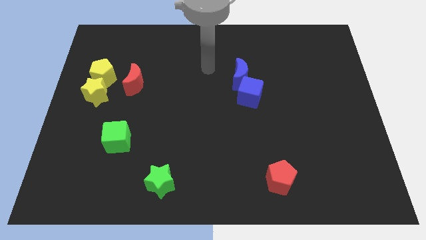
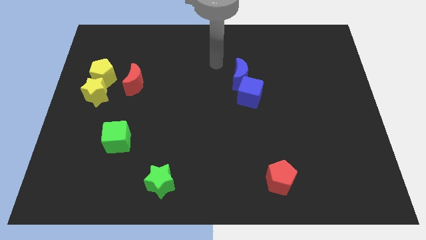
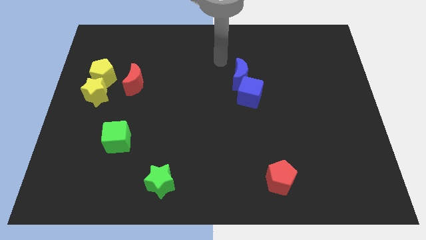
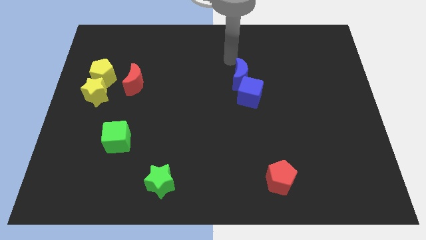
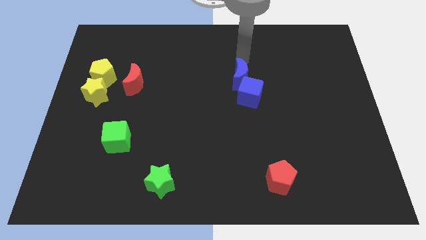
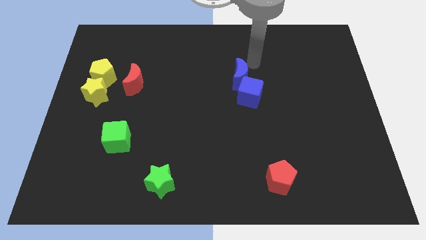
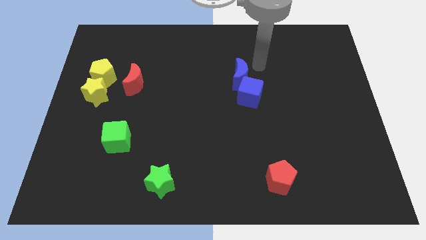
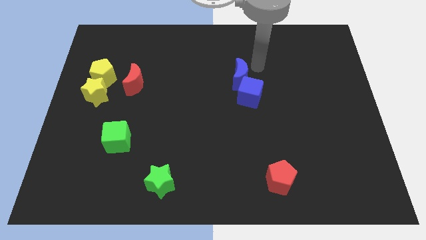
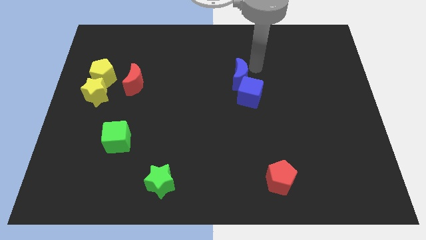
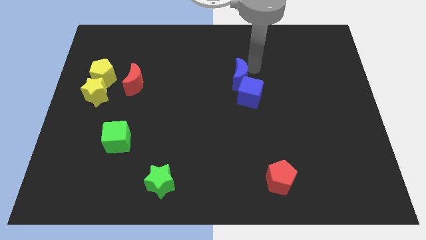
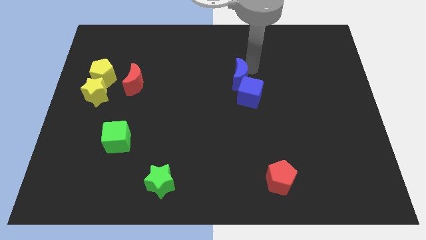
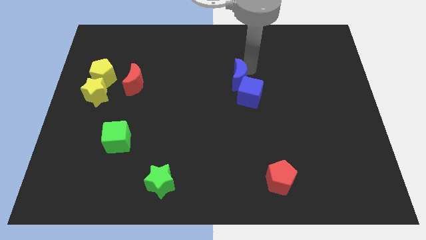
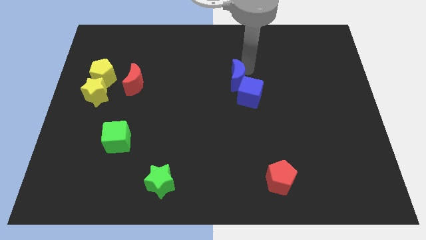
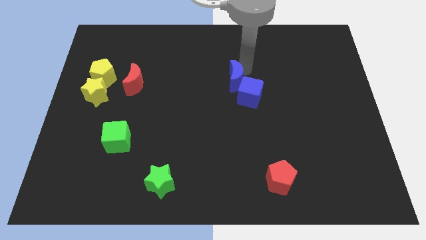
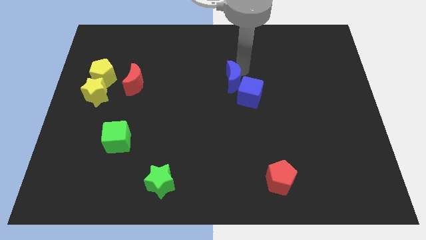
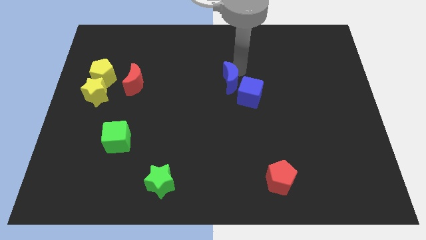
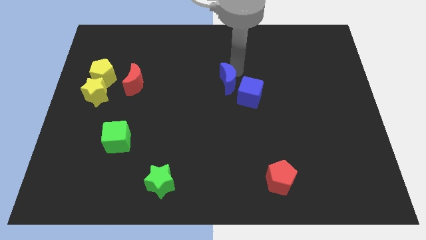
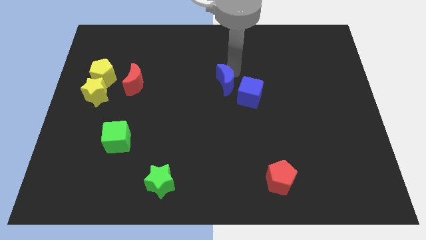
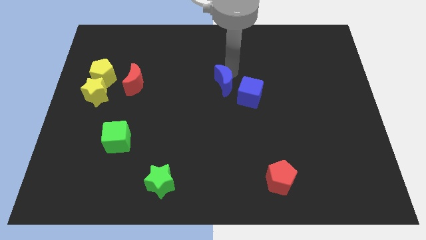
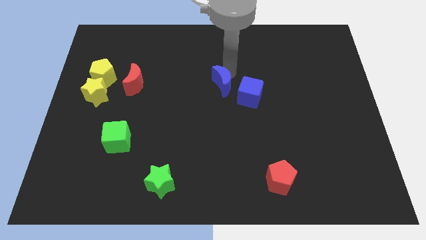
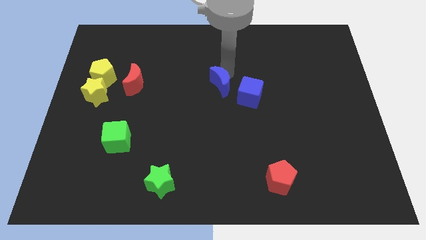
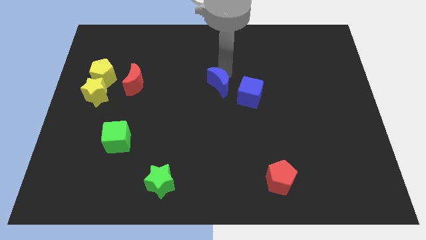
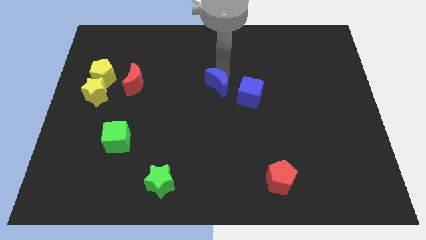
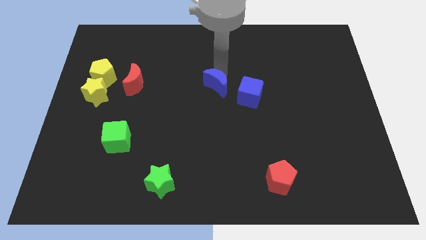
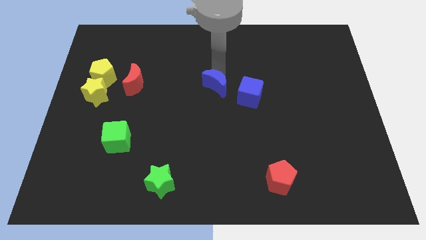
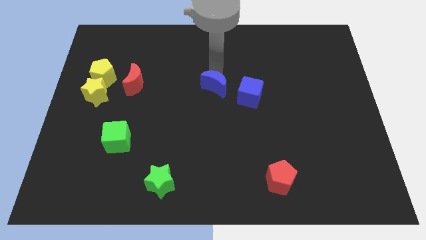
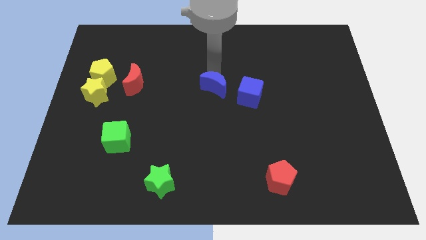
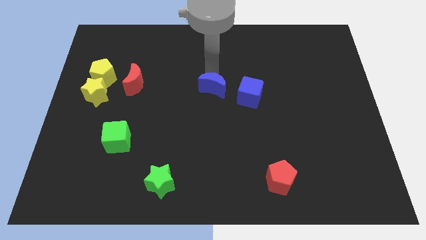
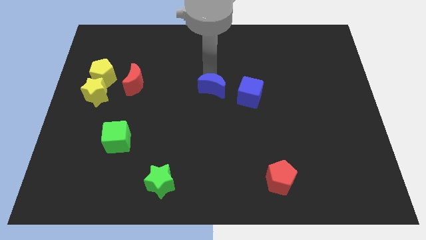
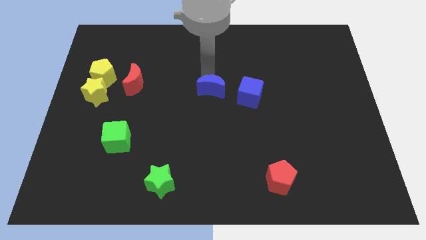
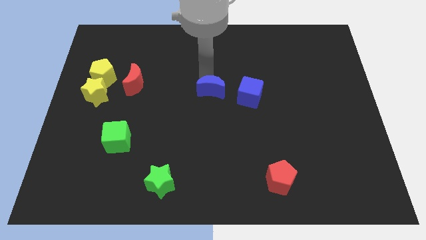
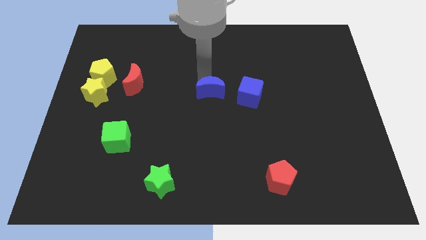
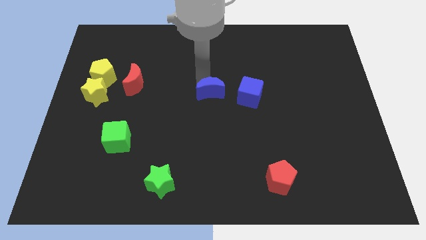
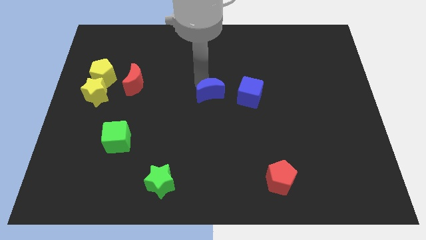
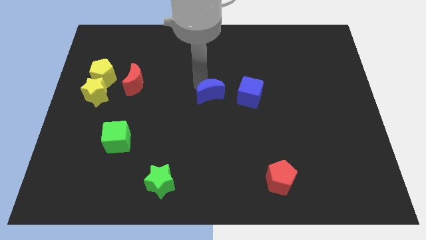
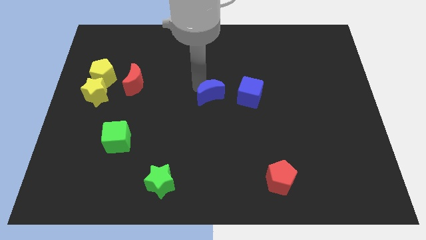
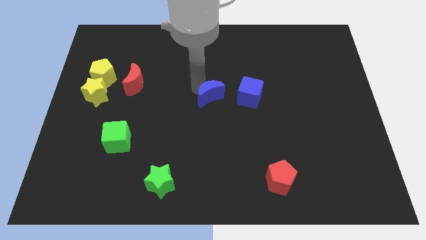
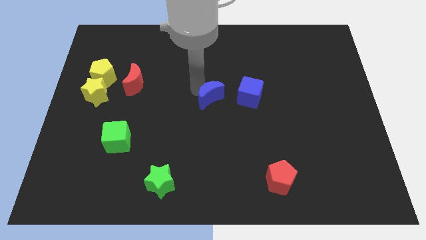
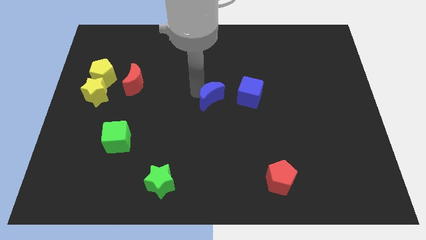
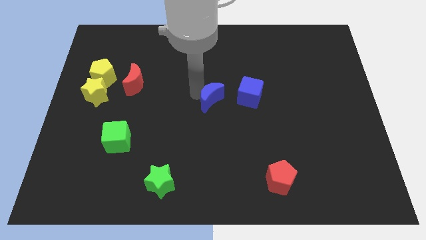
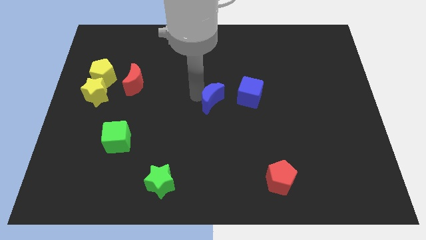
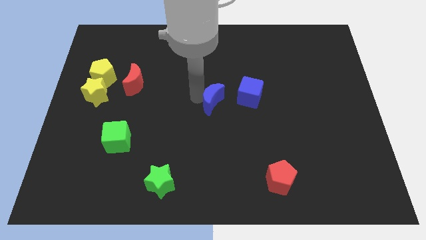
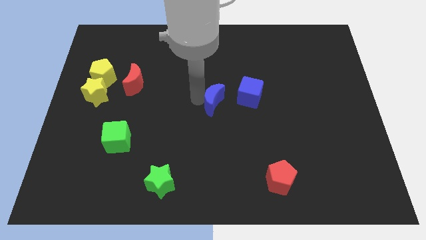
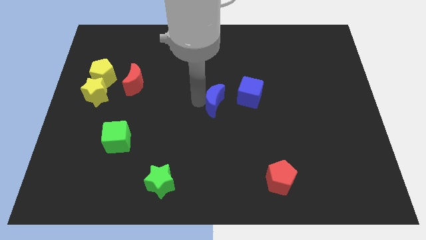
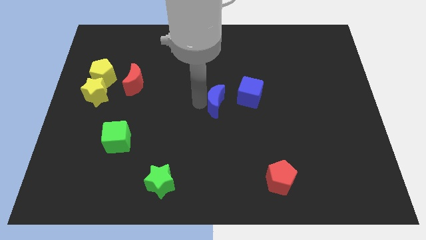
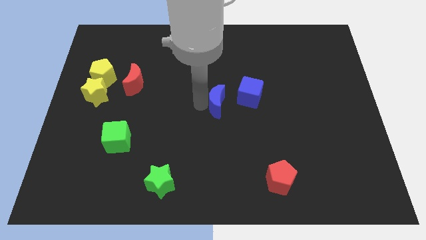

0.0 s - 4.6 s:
push the blue moon a little downwards

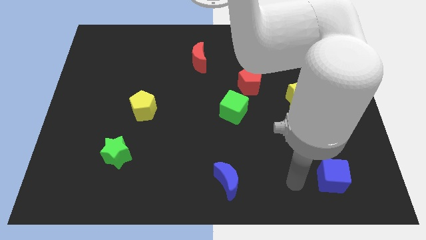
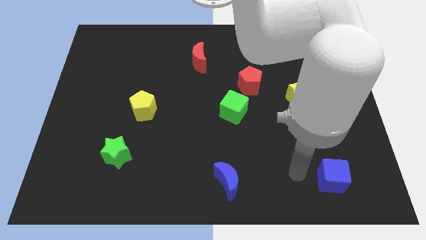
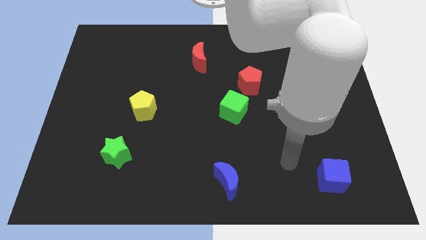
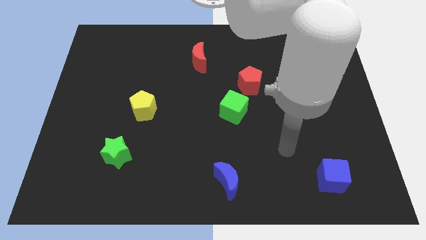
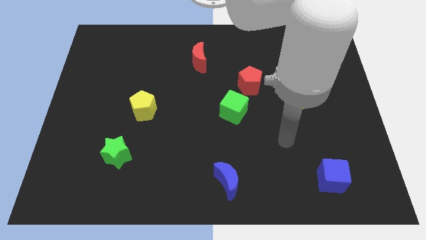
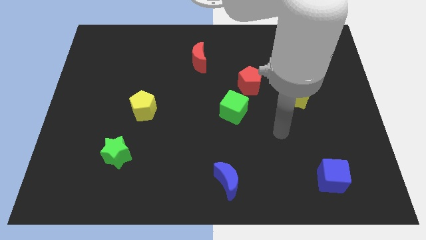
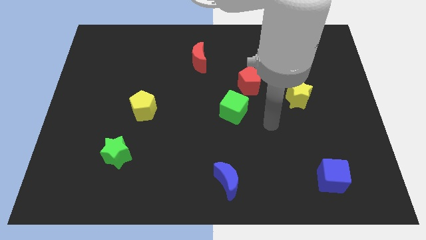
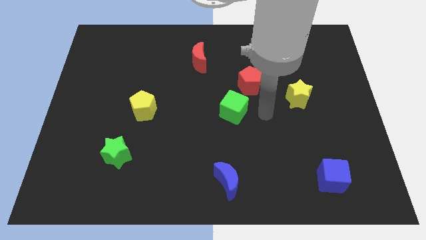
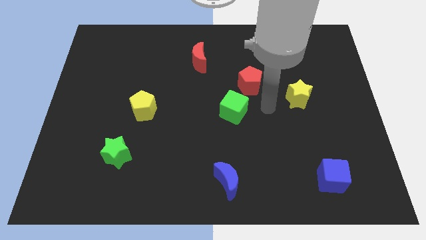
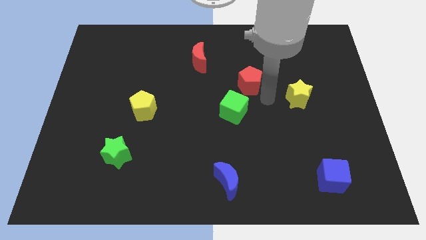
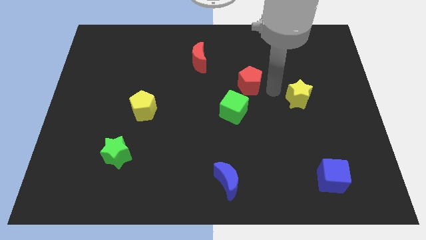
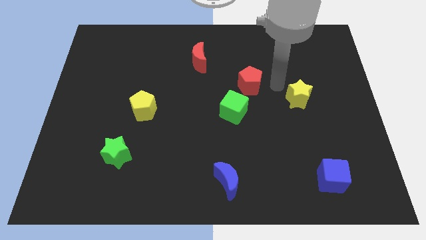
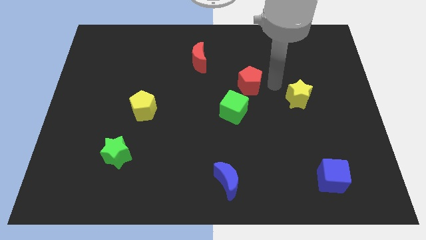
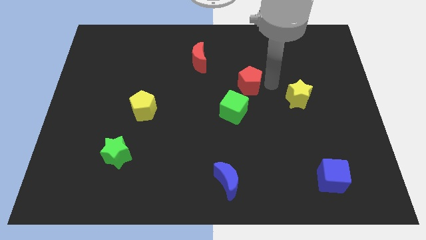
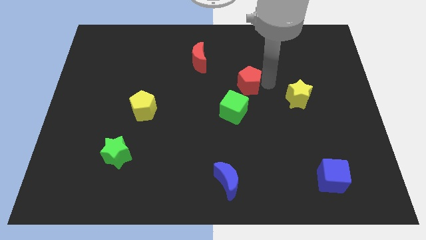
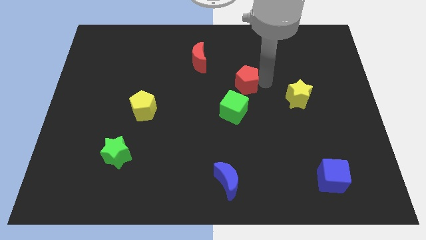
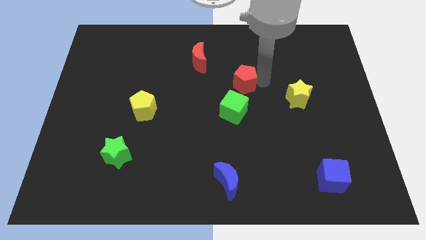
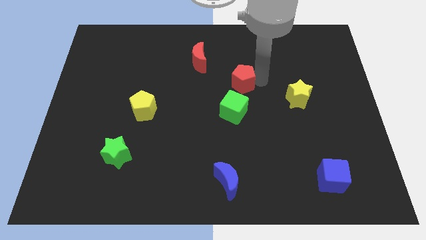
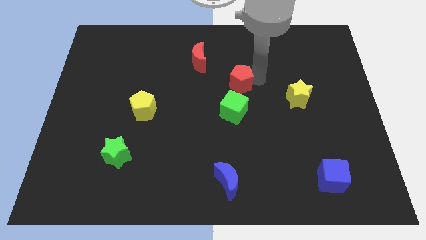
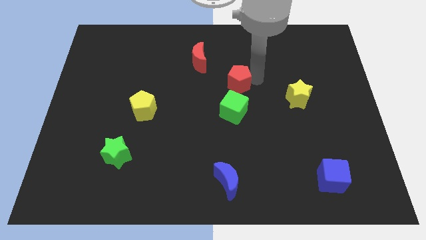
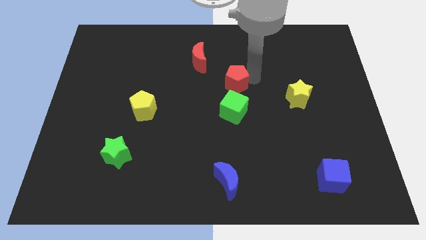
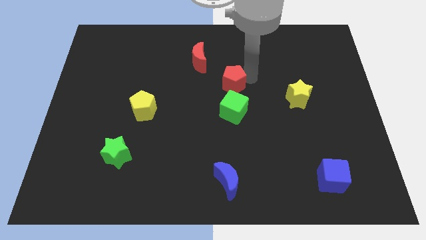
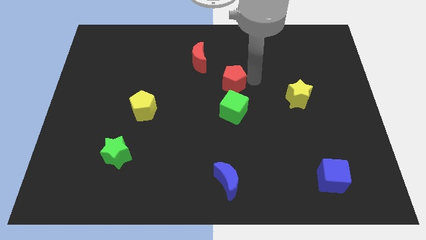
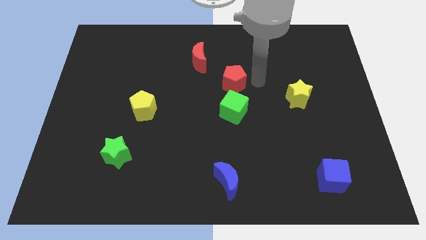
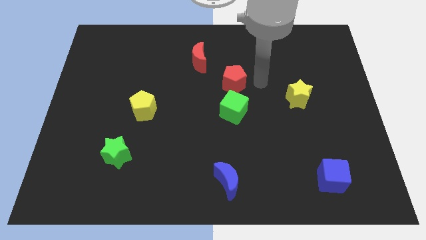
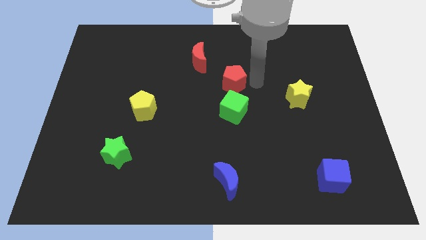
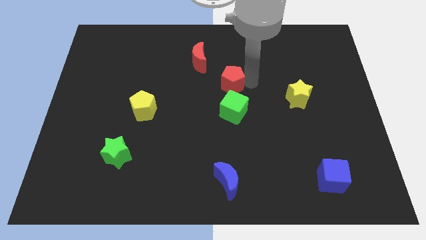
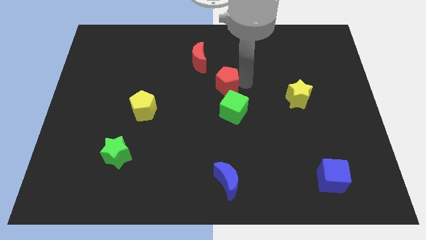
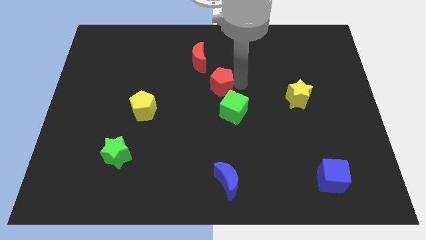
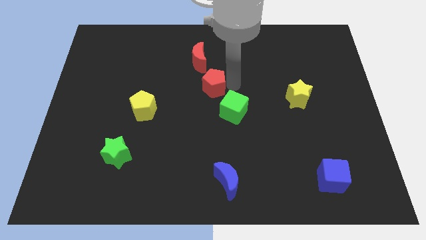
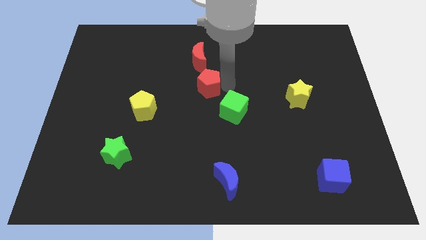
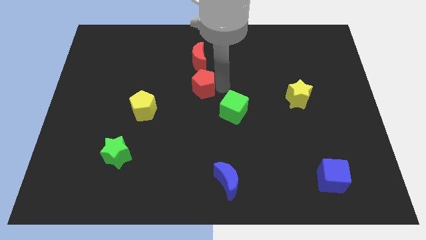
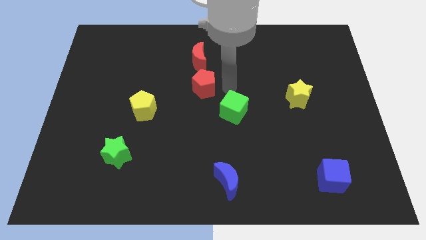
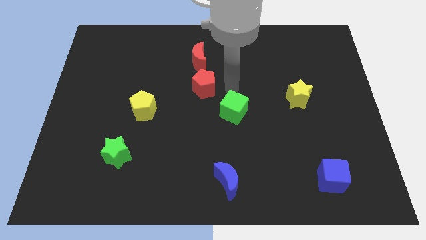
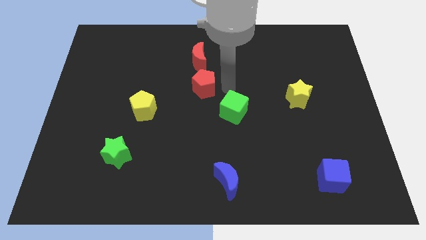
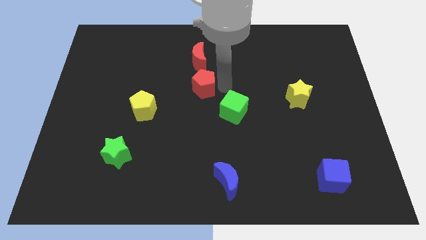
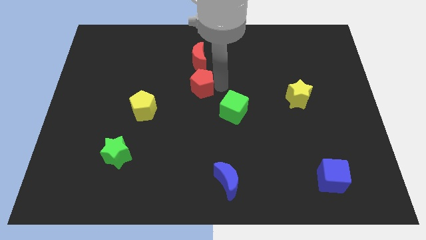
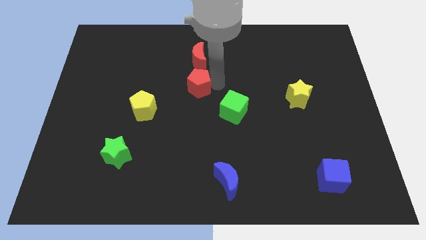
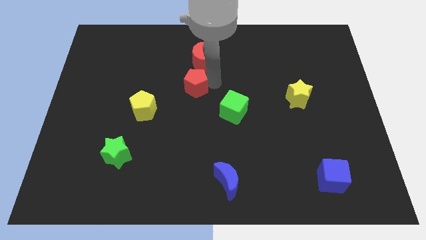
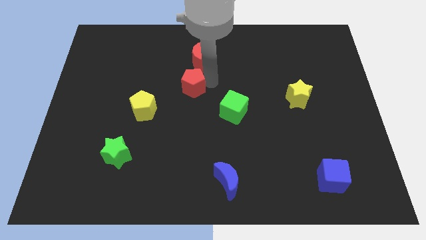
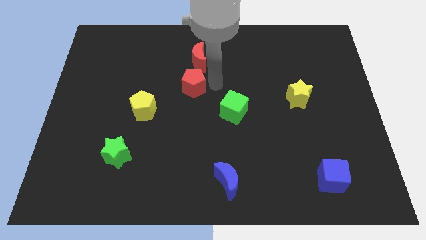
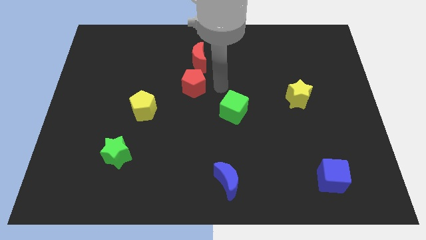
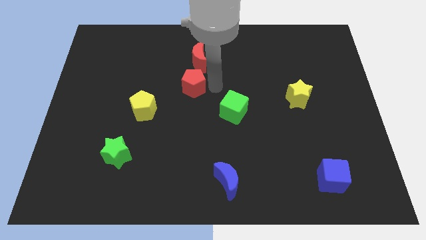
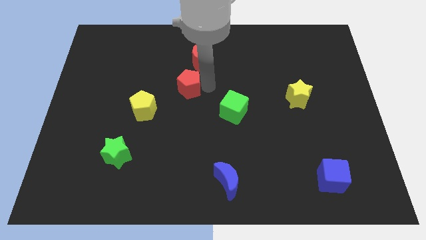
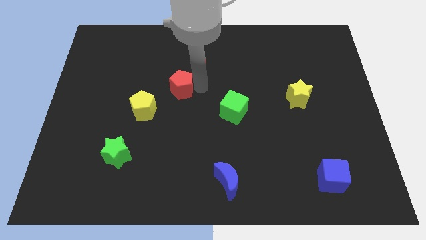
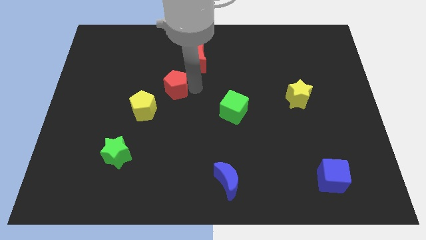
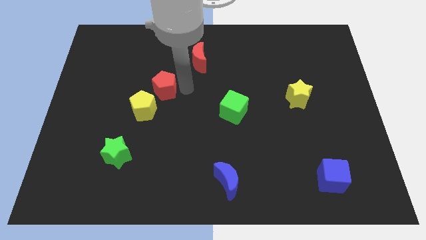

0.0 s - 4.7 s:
move the red pentagon left
